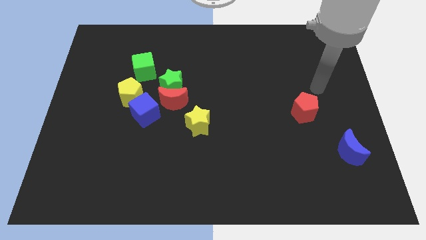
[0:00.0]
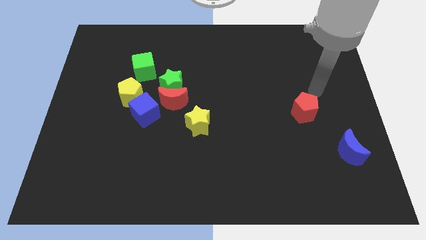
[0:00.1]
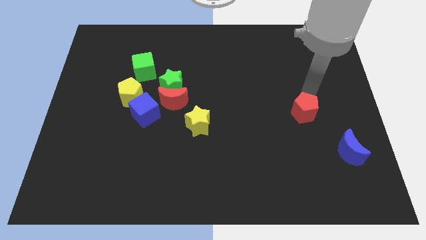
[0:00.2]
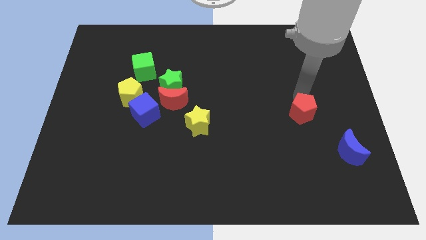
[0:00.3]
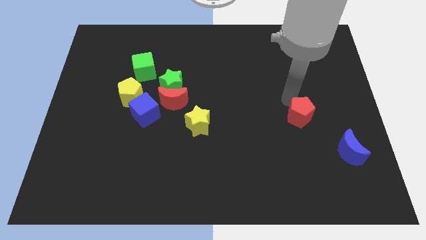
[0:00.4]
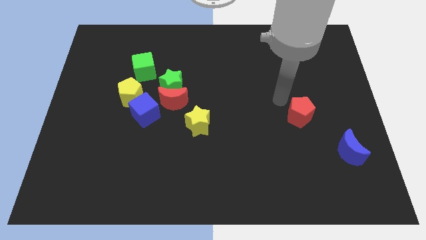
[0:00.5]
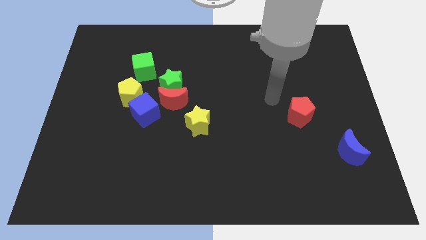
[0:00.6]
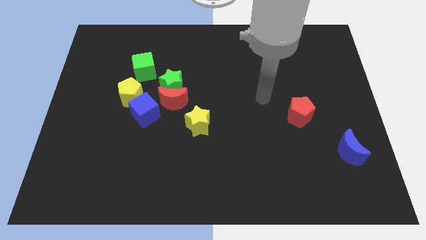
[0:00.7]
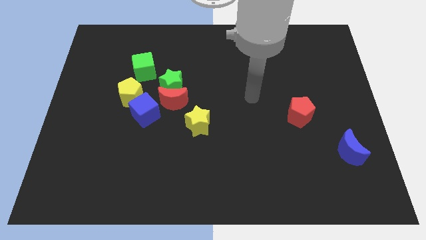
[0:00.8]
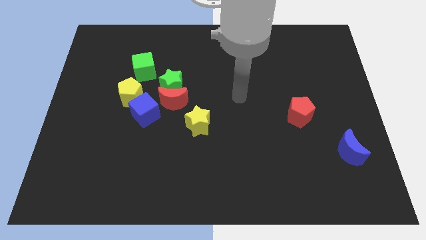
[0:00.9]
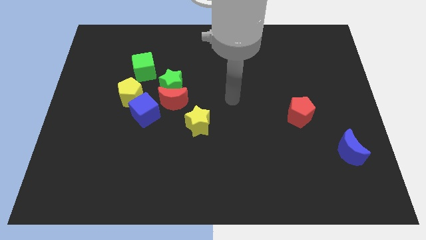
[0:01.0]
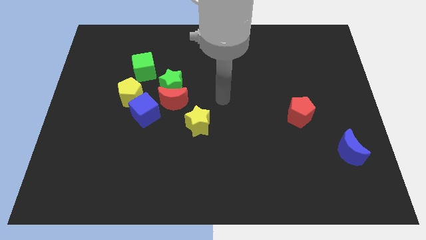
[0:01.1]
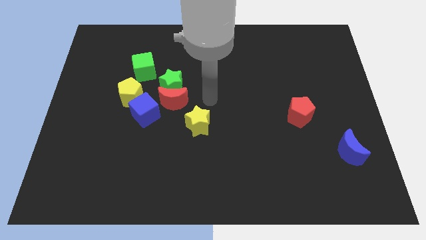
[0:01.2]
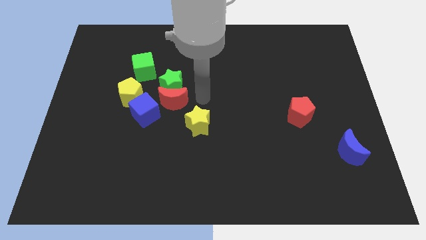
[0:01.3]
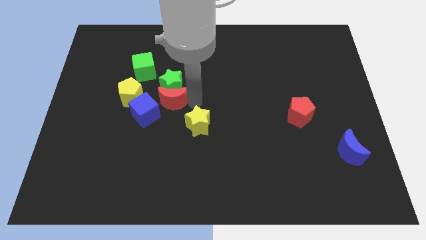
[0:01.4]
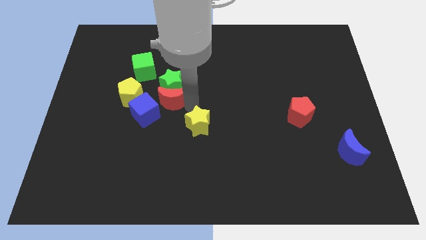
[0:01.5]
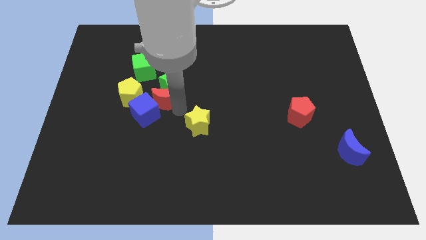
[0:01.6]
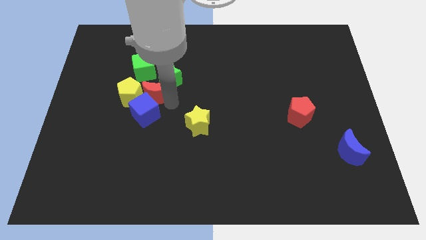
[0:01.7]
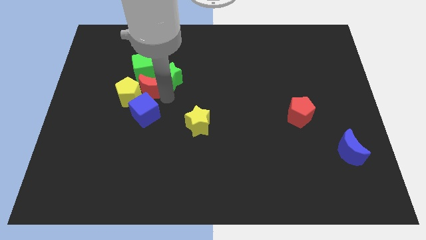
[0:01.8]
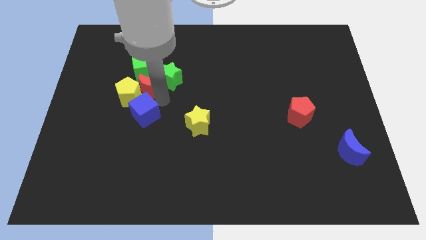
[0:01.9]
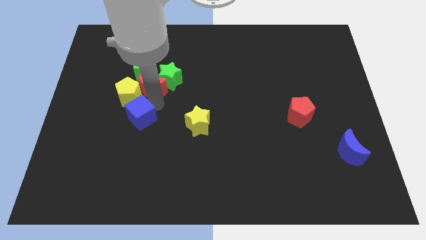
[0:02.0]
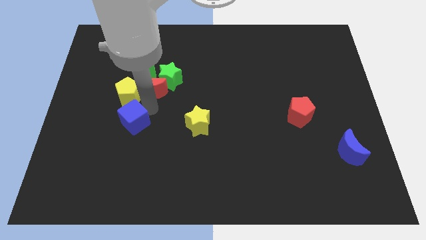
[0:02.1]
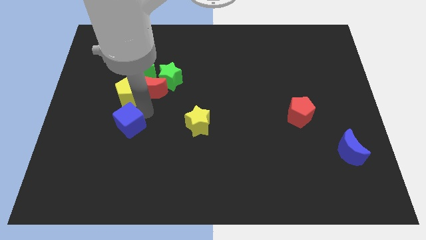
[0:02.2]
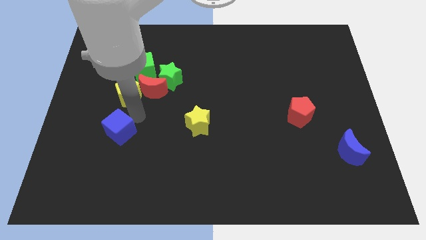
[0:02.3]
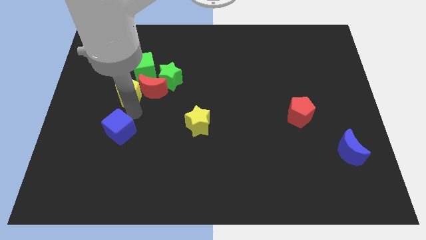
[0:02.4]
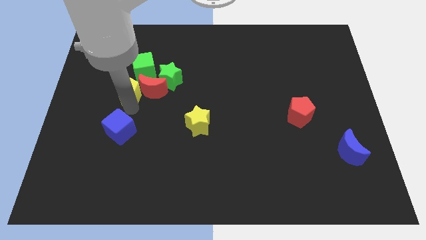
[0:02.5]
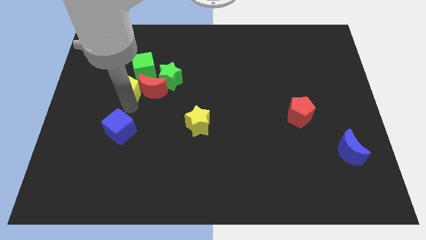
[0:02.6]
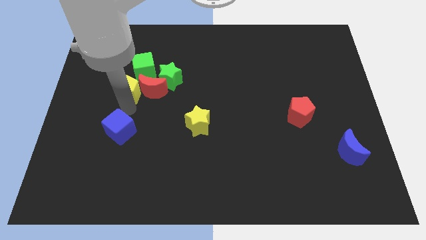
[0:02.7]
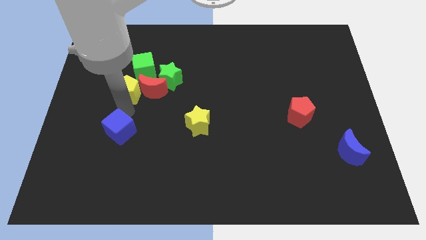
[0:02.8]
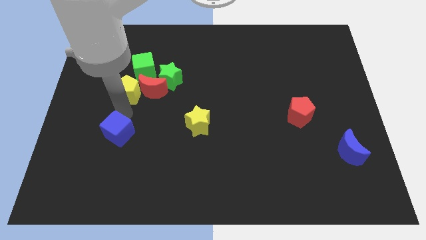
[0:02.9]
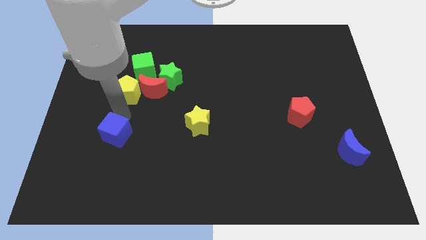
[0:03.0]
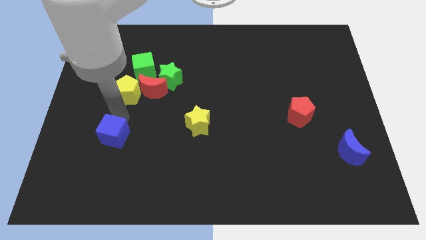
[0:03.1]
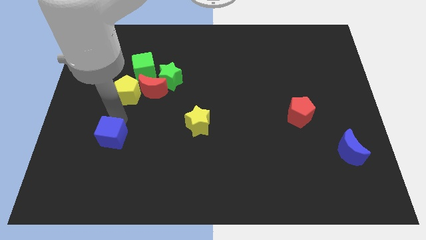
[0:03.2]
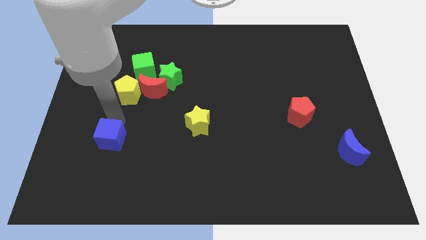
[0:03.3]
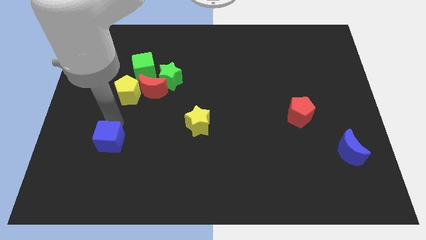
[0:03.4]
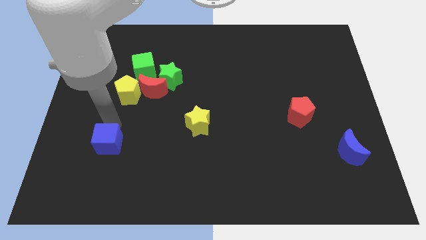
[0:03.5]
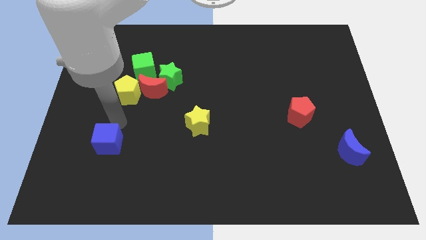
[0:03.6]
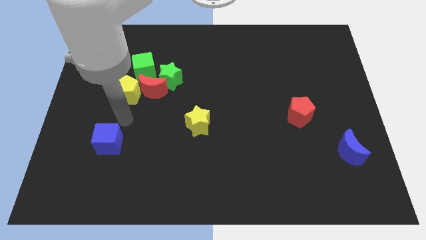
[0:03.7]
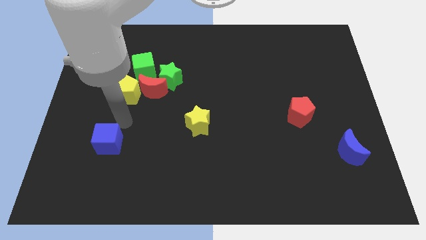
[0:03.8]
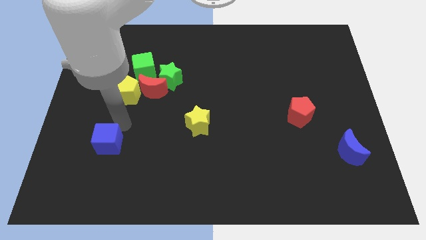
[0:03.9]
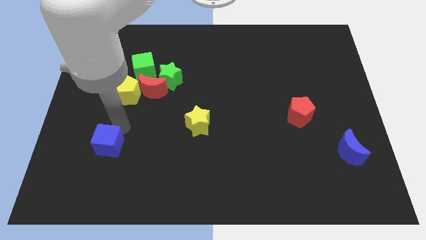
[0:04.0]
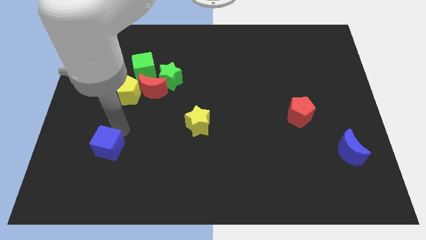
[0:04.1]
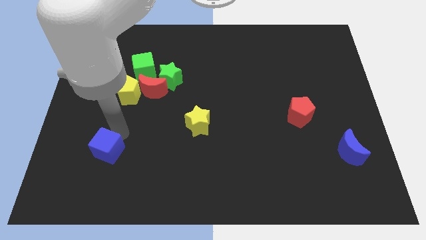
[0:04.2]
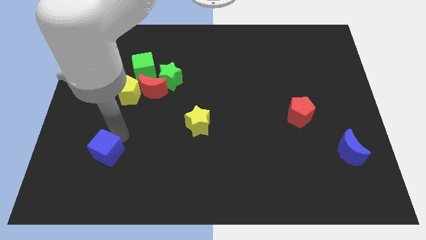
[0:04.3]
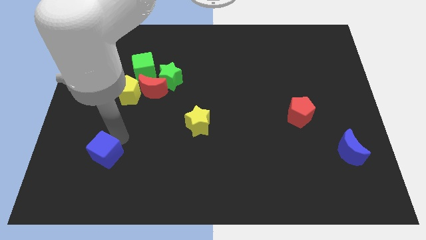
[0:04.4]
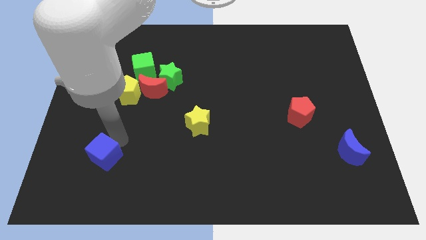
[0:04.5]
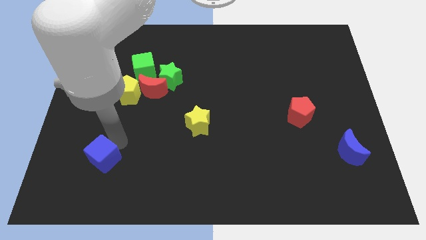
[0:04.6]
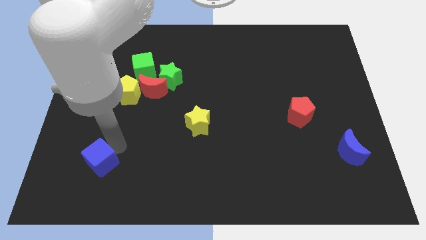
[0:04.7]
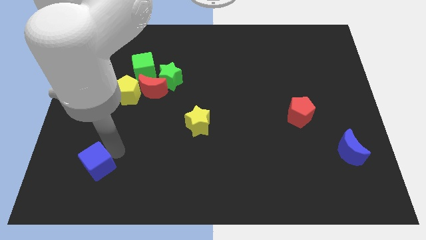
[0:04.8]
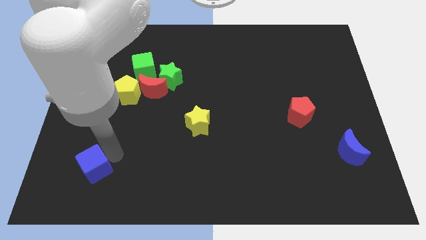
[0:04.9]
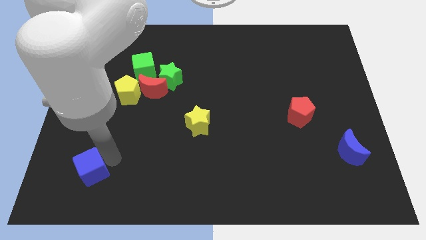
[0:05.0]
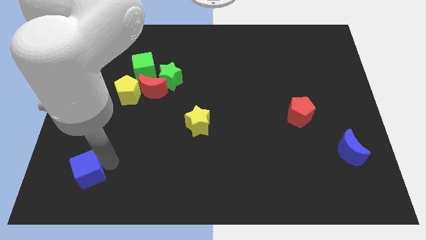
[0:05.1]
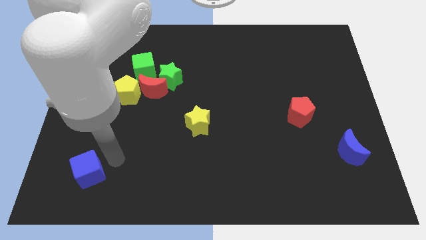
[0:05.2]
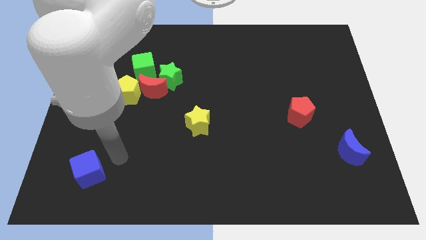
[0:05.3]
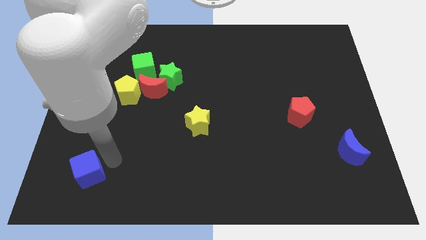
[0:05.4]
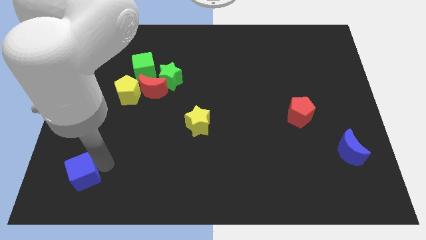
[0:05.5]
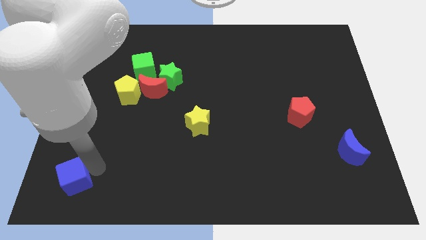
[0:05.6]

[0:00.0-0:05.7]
slide the blue cube to the lower left corner

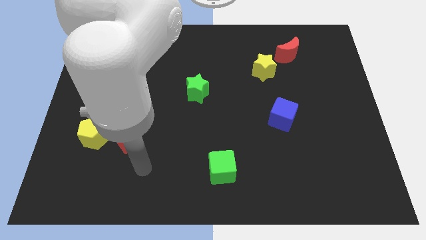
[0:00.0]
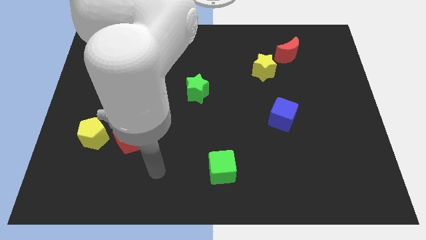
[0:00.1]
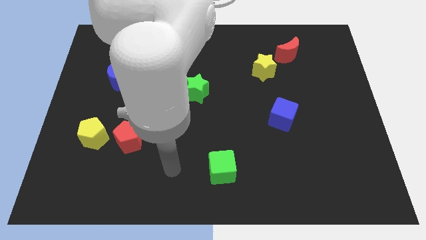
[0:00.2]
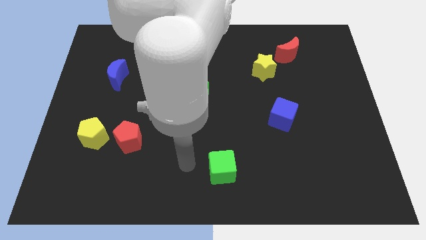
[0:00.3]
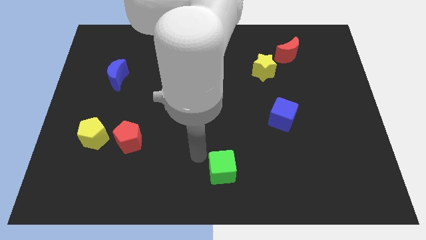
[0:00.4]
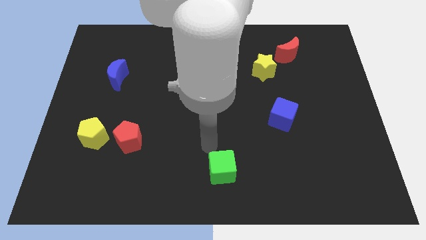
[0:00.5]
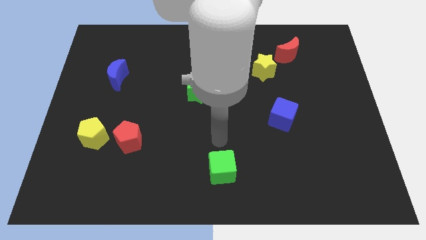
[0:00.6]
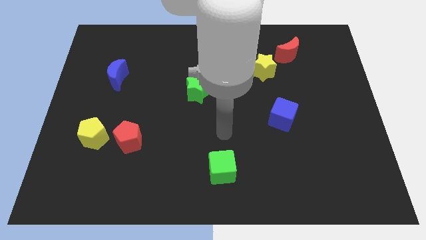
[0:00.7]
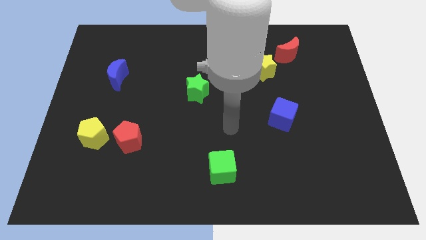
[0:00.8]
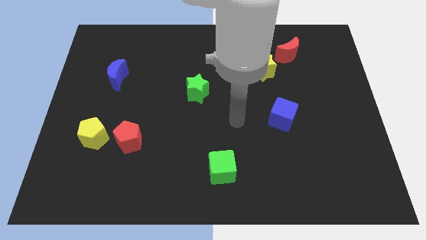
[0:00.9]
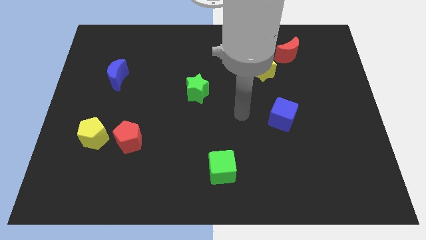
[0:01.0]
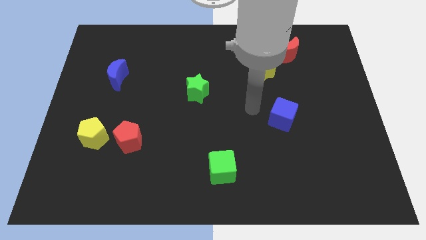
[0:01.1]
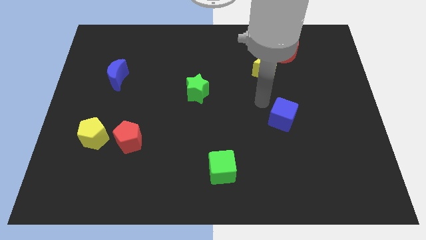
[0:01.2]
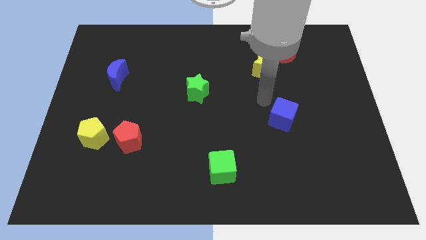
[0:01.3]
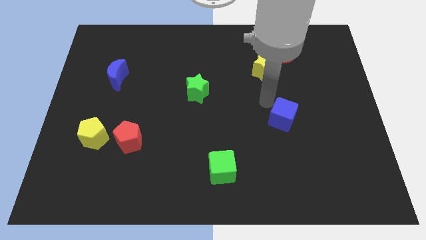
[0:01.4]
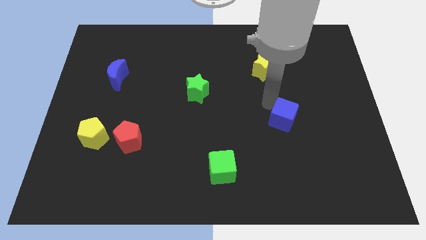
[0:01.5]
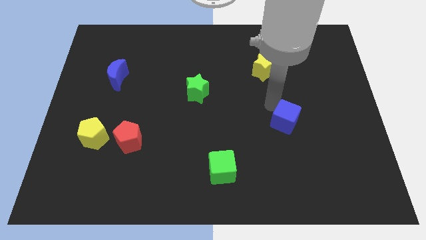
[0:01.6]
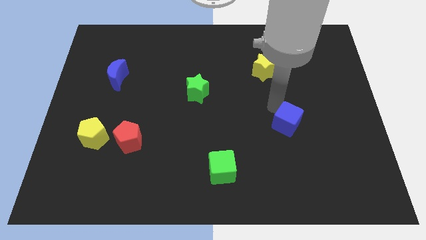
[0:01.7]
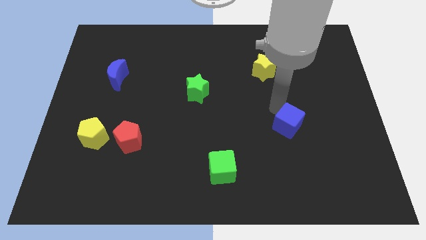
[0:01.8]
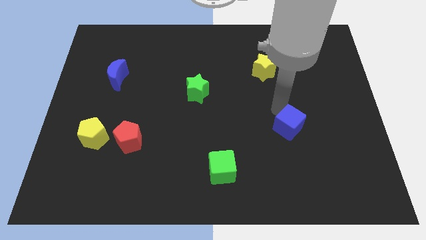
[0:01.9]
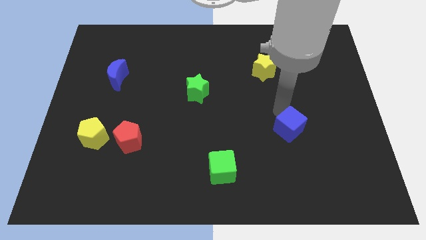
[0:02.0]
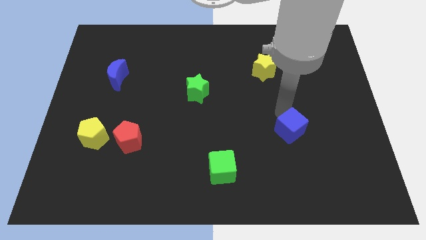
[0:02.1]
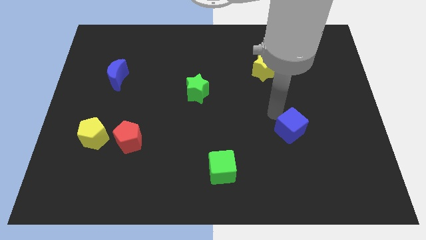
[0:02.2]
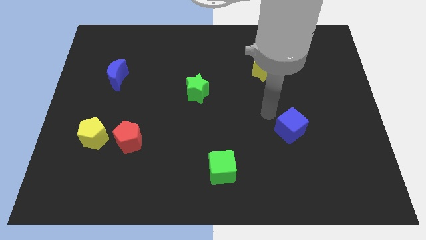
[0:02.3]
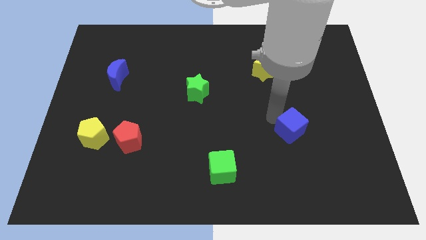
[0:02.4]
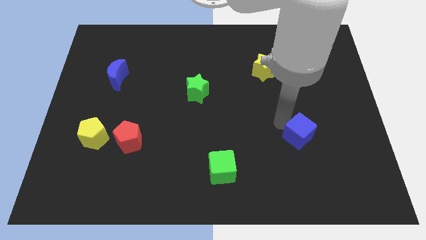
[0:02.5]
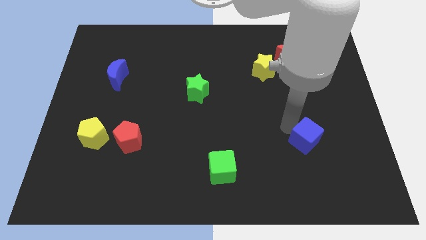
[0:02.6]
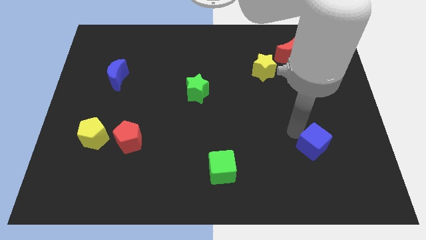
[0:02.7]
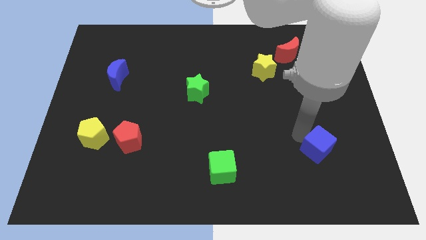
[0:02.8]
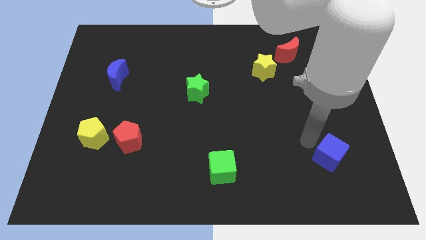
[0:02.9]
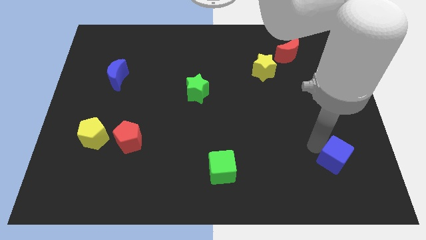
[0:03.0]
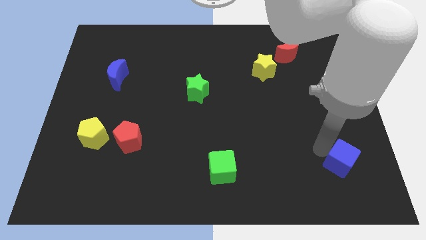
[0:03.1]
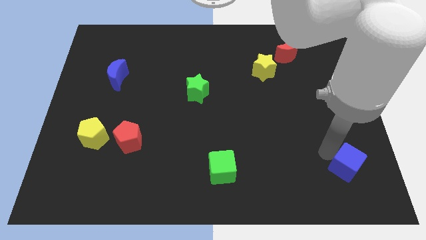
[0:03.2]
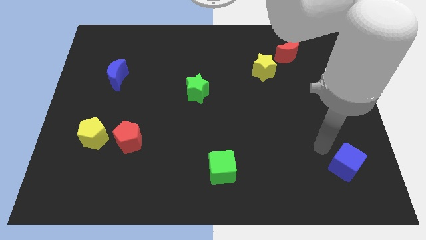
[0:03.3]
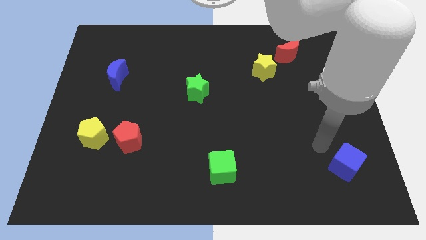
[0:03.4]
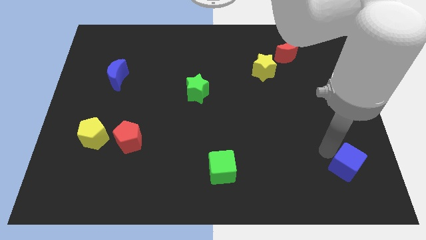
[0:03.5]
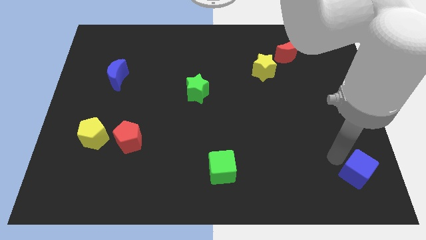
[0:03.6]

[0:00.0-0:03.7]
slide the blue cube to the lower right corner
